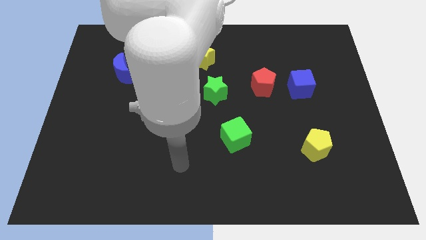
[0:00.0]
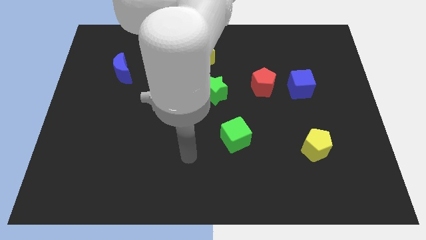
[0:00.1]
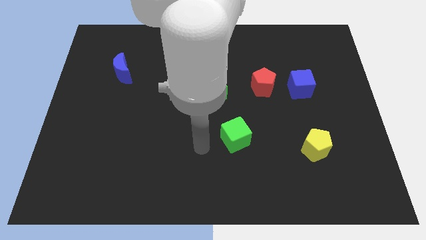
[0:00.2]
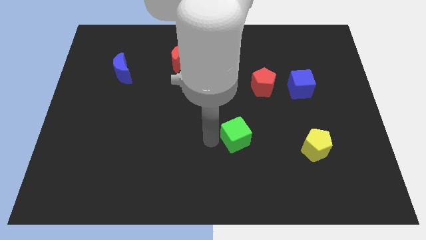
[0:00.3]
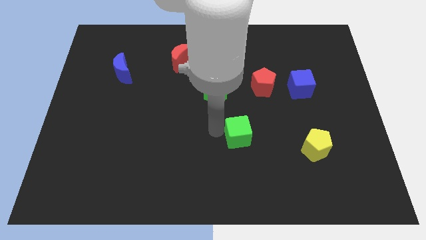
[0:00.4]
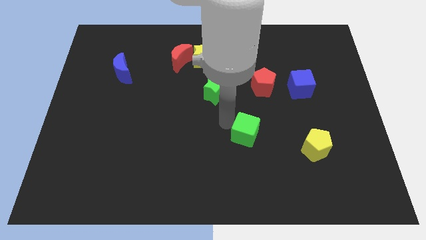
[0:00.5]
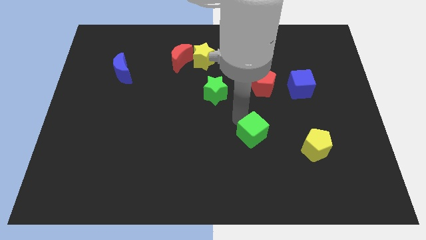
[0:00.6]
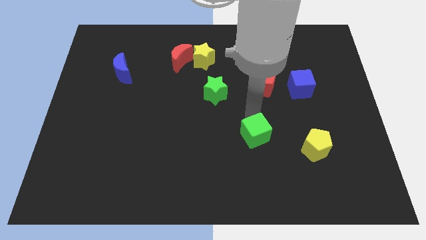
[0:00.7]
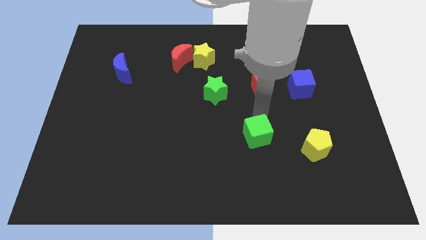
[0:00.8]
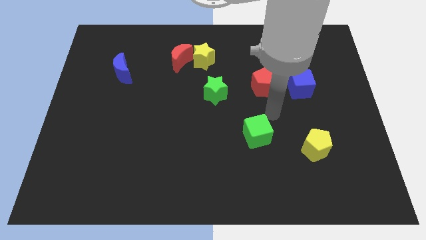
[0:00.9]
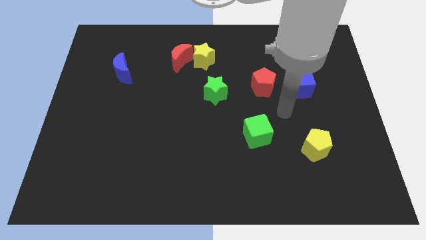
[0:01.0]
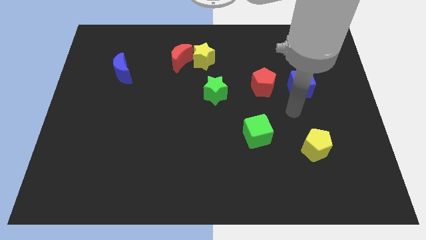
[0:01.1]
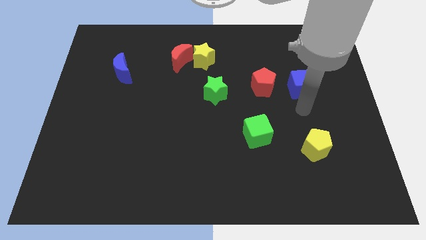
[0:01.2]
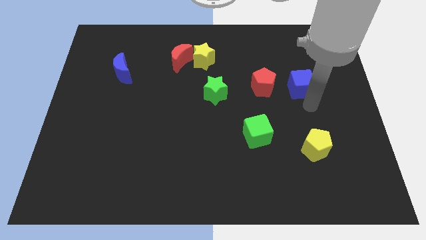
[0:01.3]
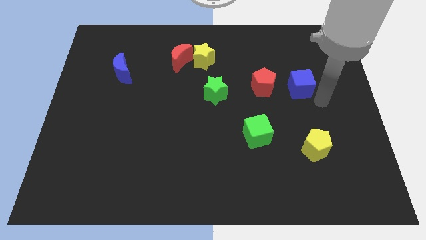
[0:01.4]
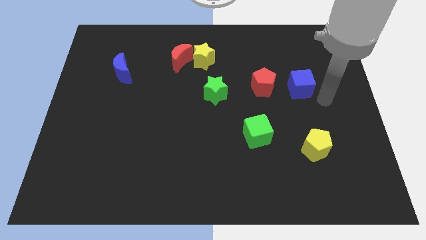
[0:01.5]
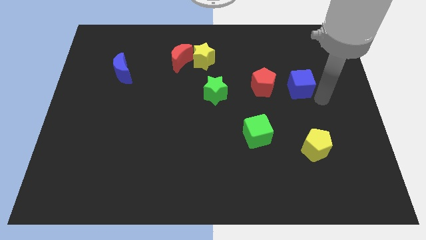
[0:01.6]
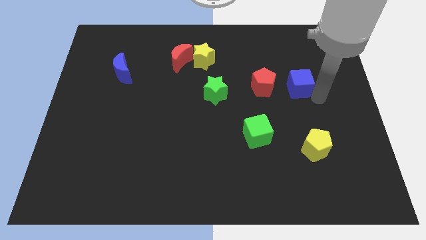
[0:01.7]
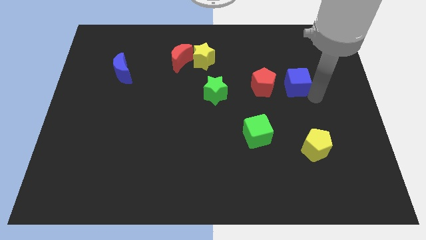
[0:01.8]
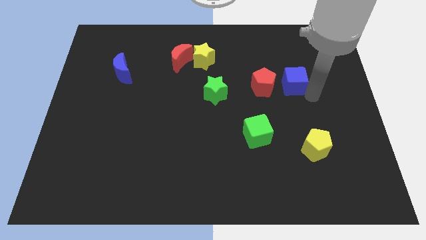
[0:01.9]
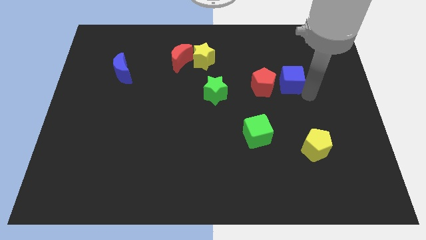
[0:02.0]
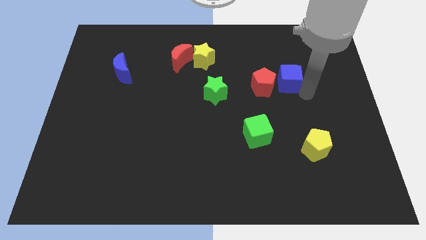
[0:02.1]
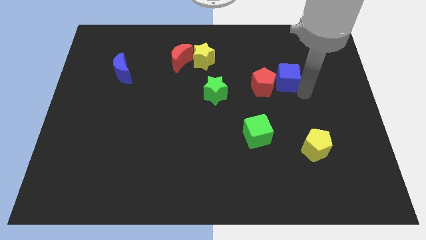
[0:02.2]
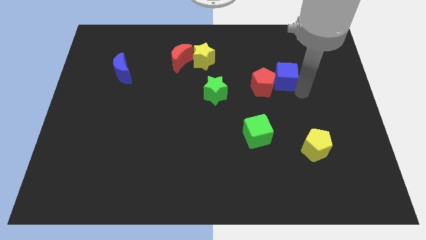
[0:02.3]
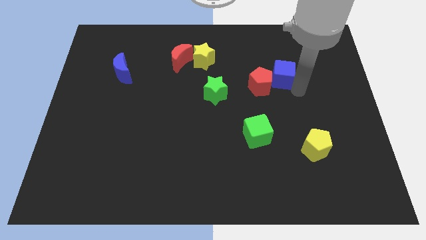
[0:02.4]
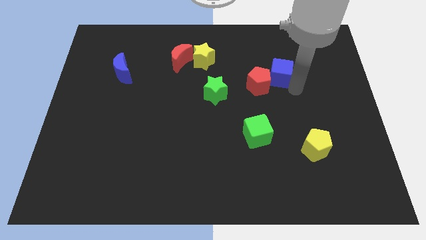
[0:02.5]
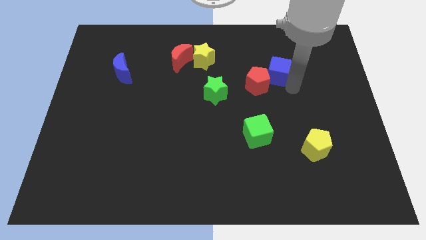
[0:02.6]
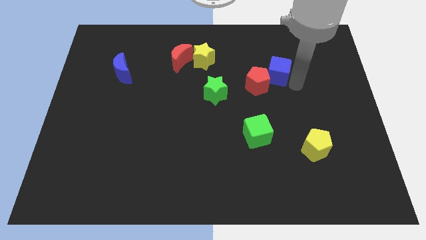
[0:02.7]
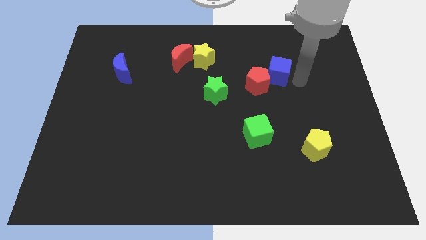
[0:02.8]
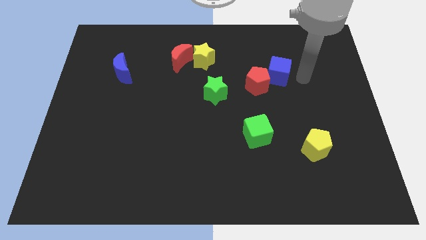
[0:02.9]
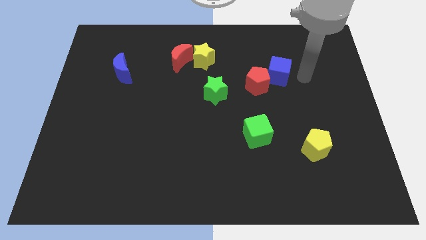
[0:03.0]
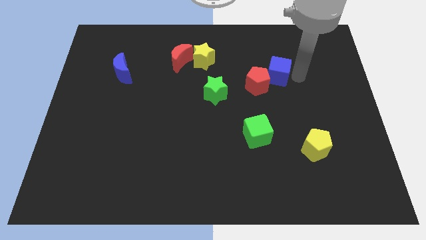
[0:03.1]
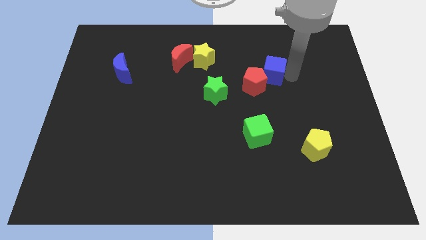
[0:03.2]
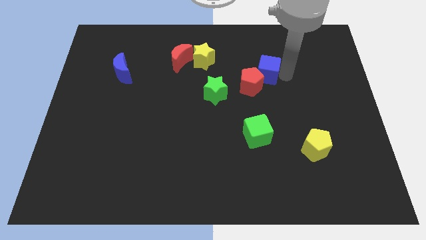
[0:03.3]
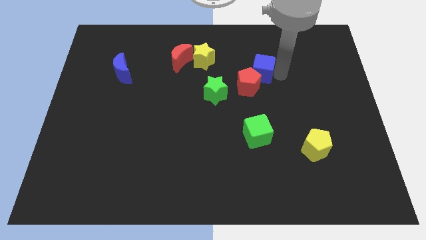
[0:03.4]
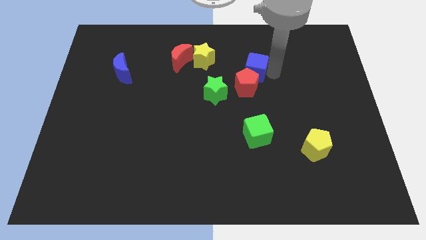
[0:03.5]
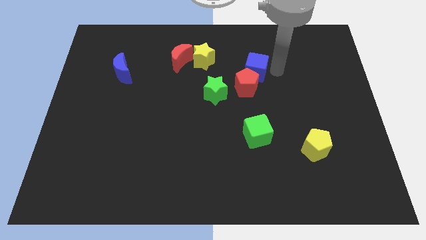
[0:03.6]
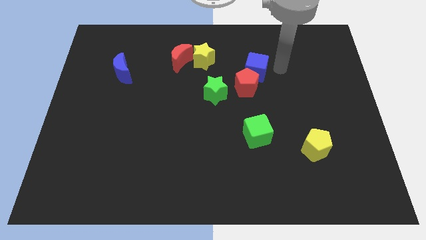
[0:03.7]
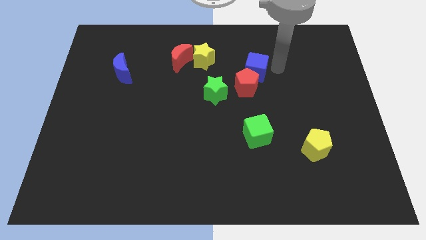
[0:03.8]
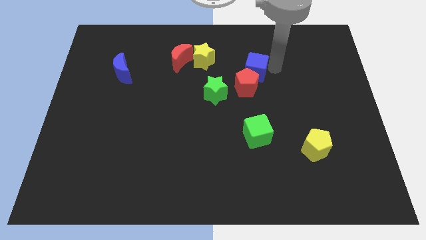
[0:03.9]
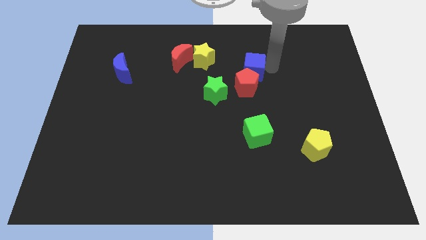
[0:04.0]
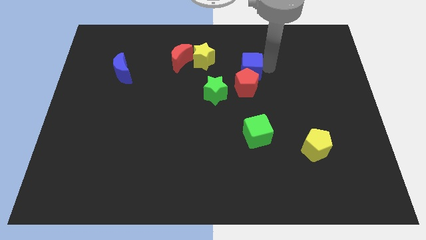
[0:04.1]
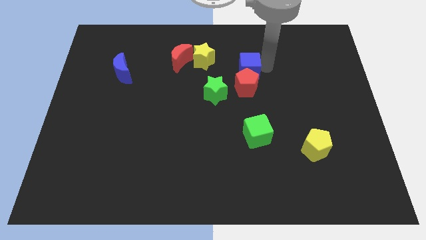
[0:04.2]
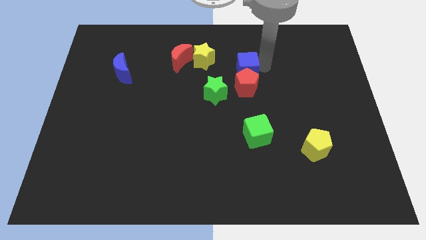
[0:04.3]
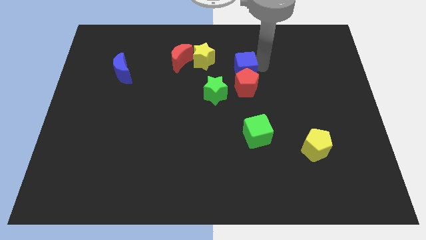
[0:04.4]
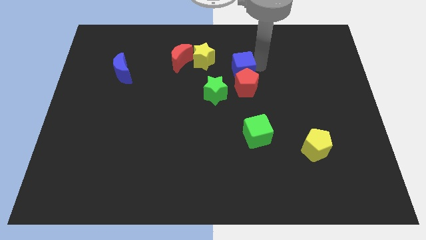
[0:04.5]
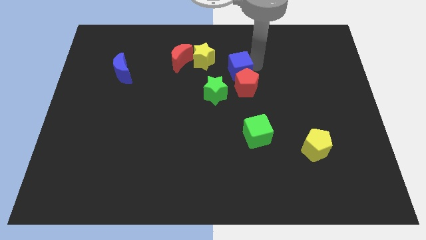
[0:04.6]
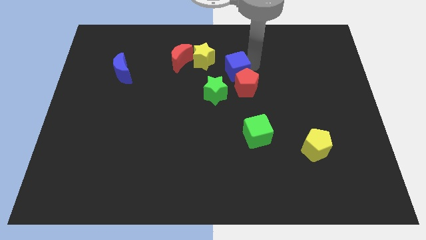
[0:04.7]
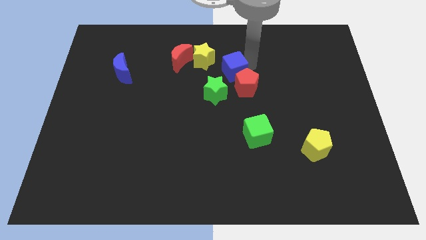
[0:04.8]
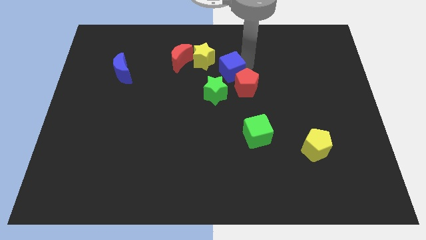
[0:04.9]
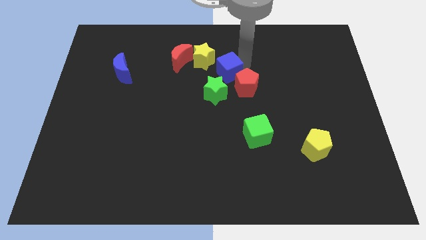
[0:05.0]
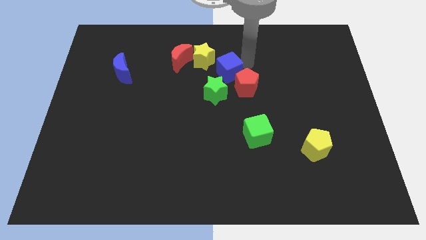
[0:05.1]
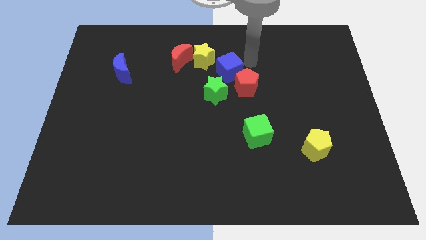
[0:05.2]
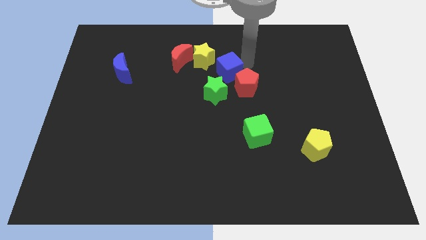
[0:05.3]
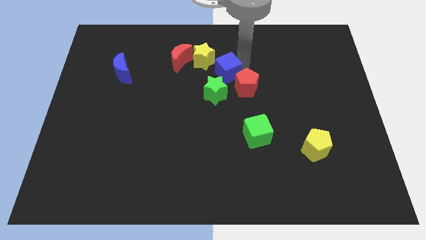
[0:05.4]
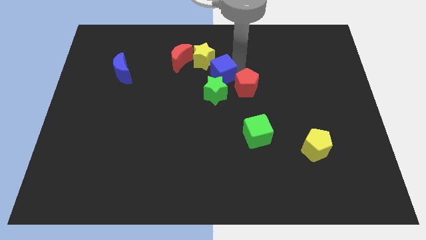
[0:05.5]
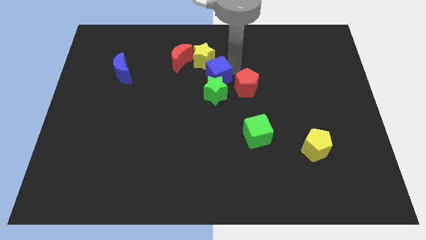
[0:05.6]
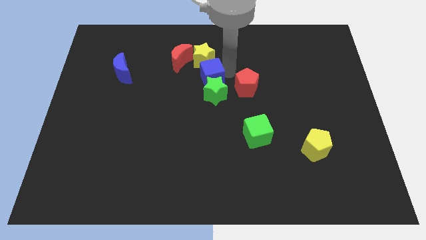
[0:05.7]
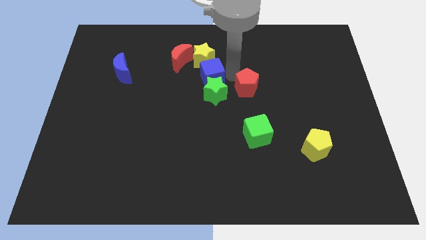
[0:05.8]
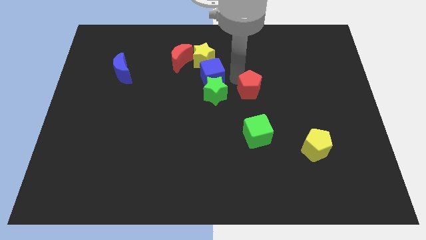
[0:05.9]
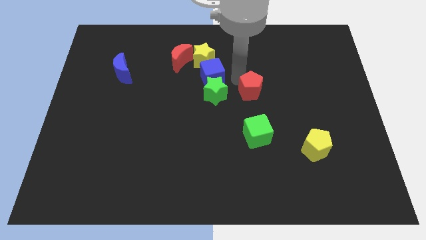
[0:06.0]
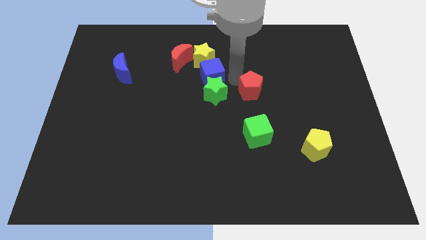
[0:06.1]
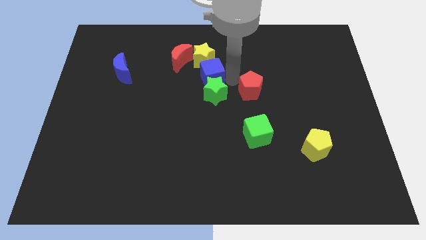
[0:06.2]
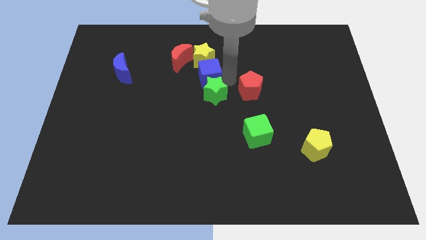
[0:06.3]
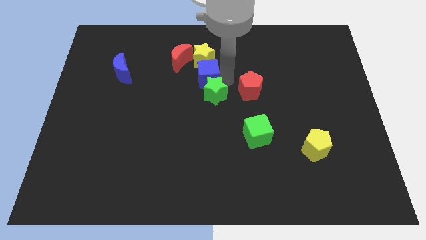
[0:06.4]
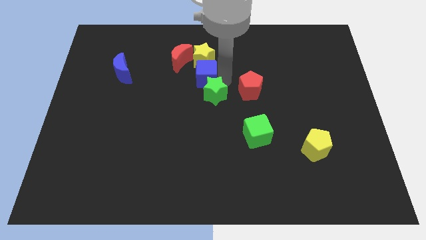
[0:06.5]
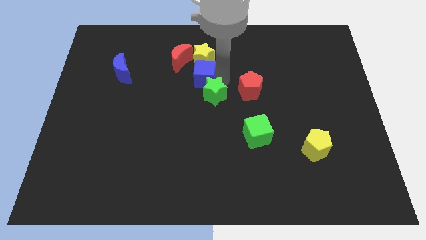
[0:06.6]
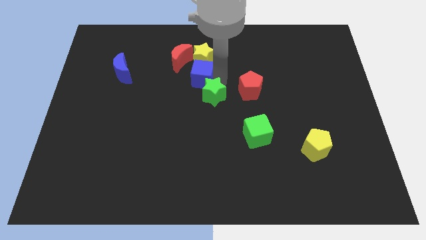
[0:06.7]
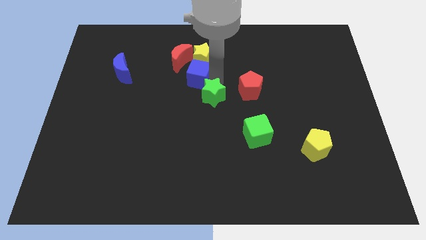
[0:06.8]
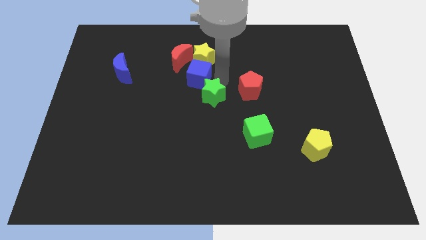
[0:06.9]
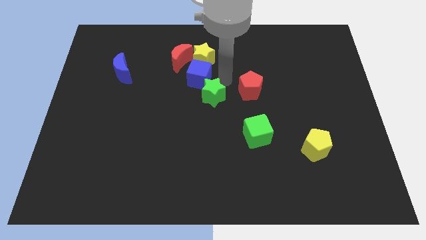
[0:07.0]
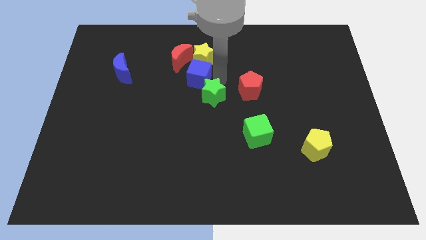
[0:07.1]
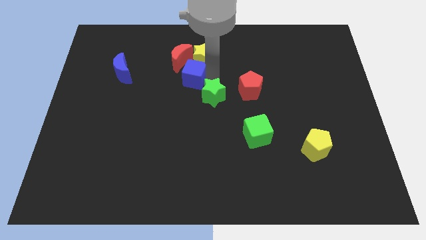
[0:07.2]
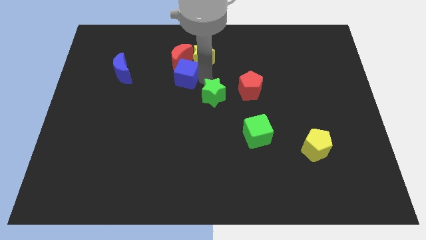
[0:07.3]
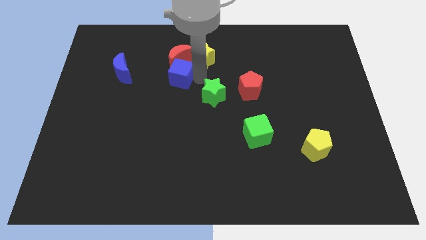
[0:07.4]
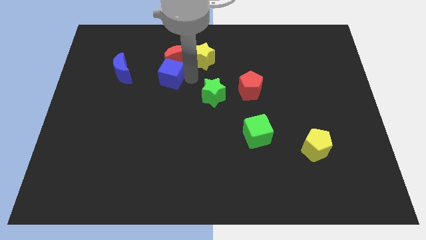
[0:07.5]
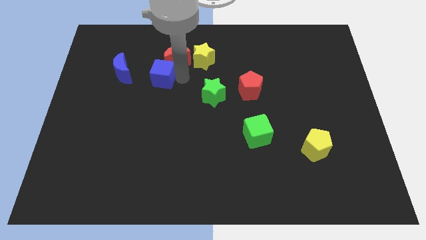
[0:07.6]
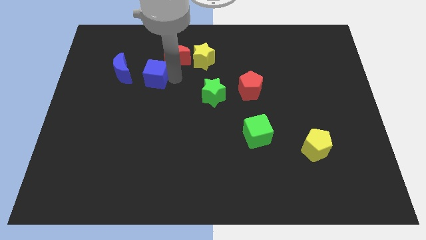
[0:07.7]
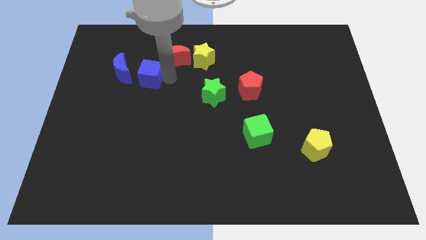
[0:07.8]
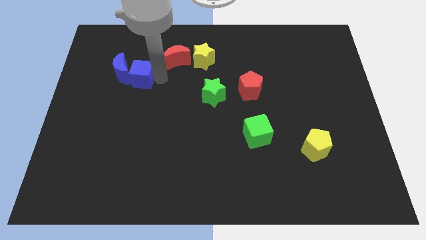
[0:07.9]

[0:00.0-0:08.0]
put the blue cube towards the blue moon
